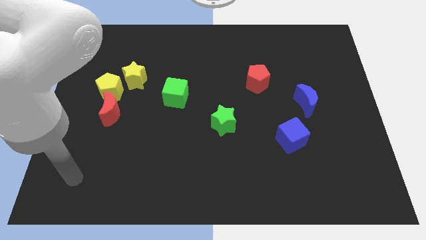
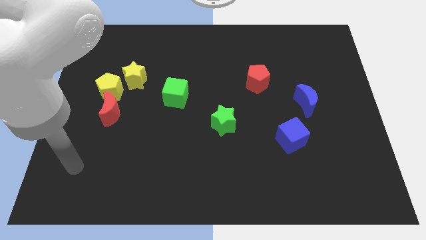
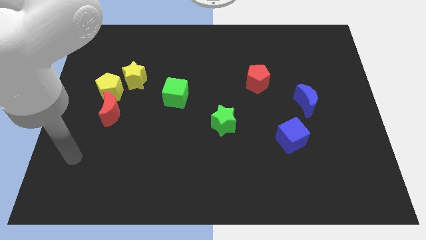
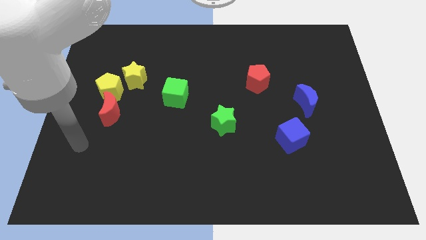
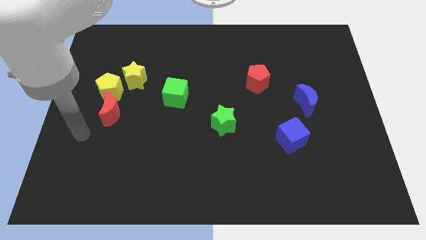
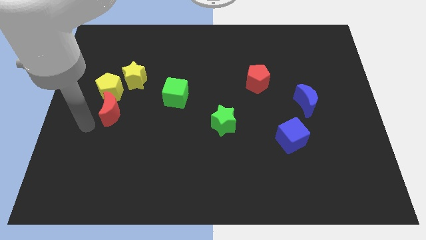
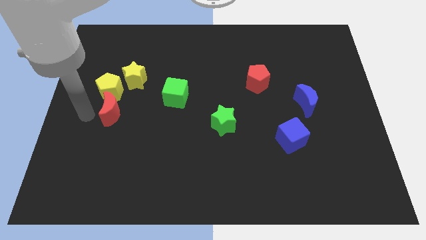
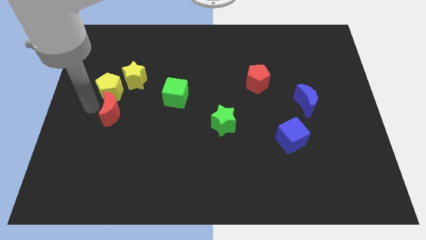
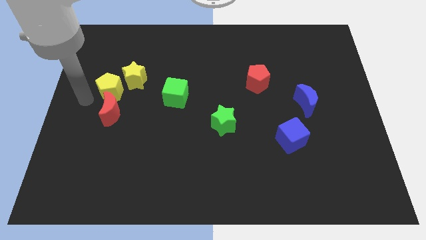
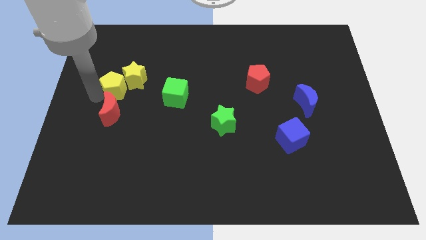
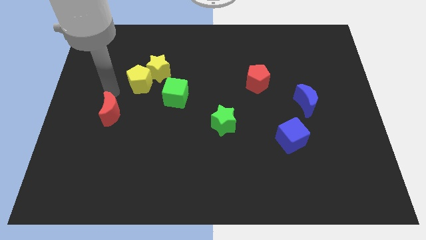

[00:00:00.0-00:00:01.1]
separate the red moon from the yellow pentagon

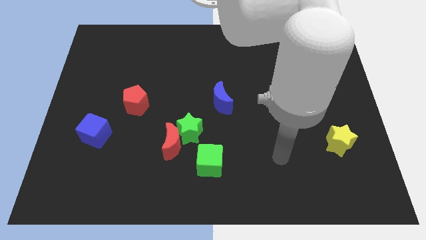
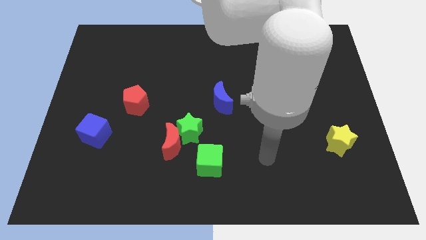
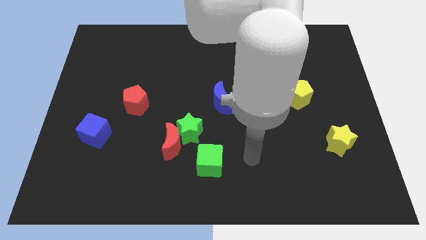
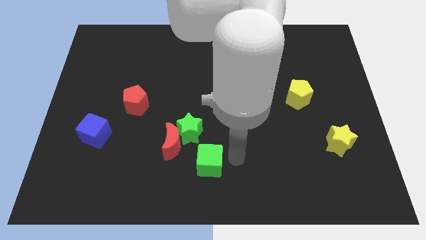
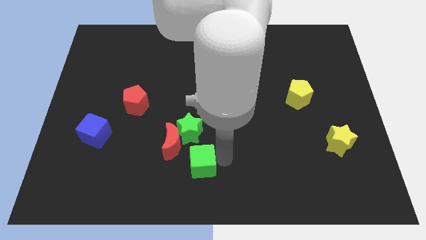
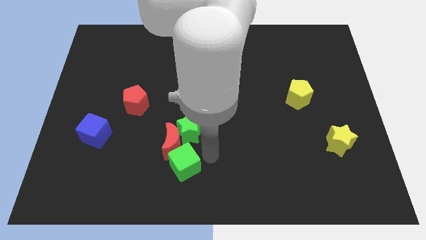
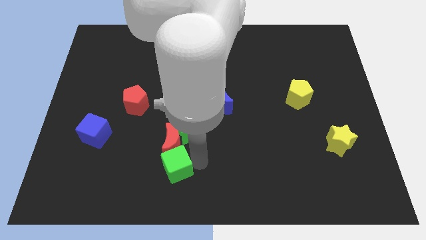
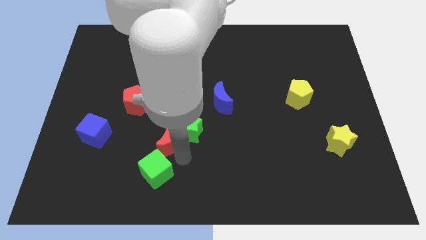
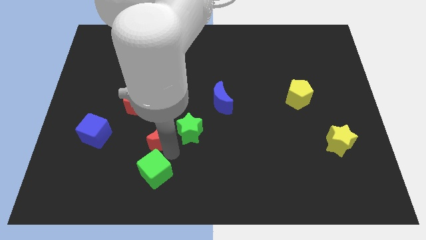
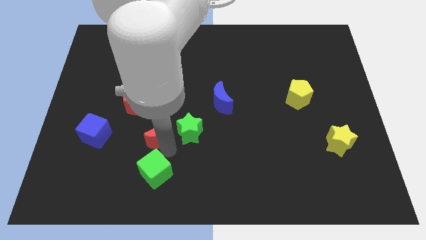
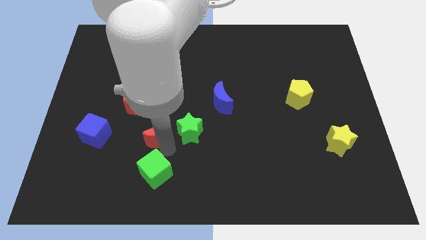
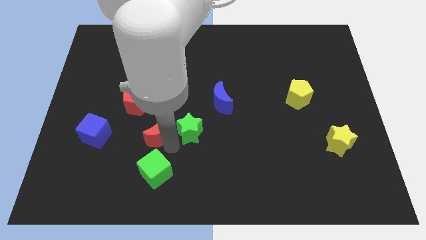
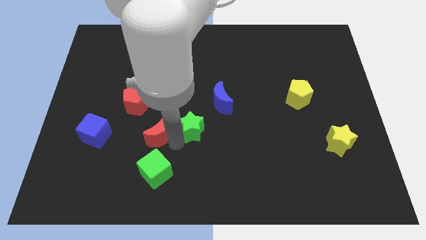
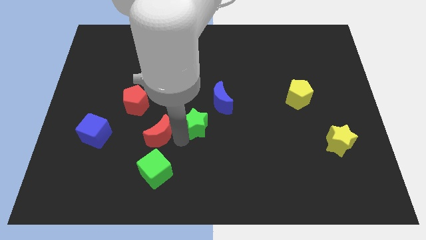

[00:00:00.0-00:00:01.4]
separate the green star from the red moon and green cube

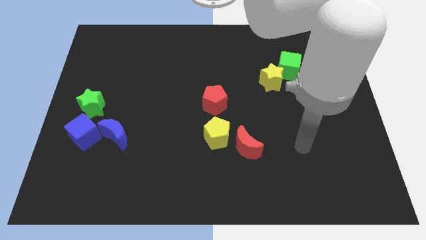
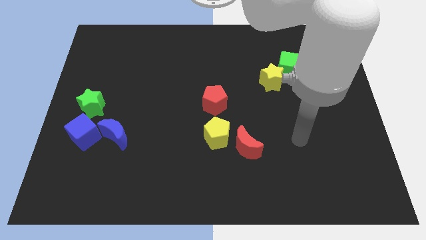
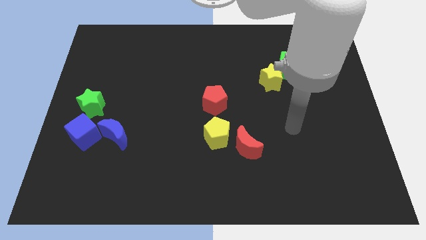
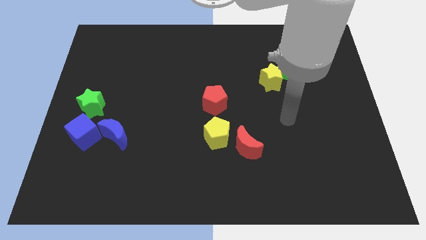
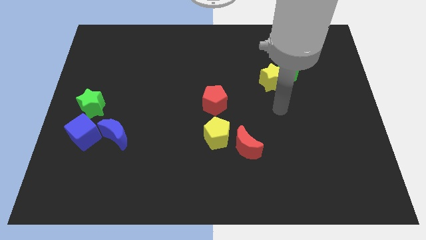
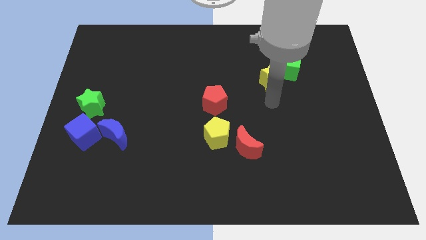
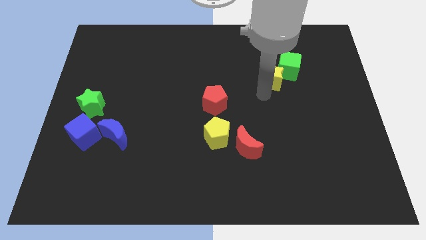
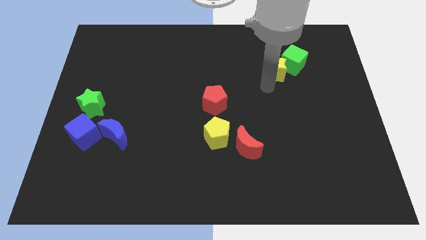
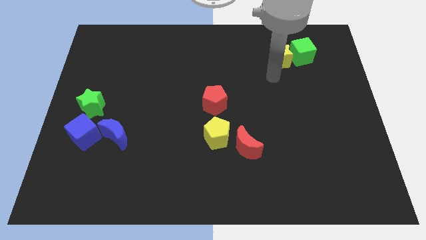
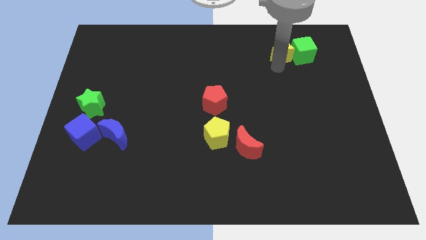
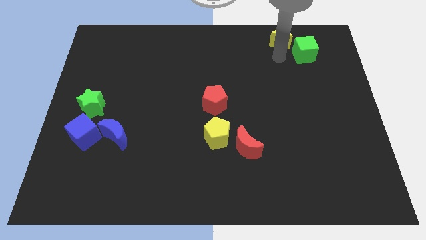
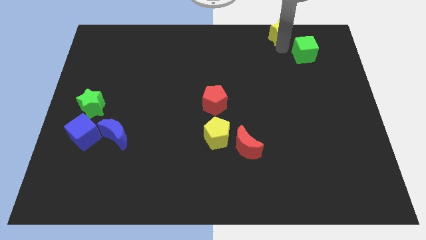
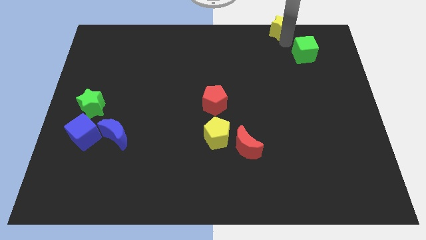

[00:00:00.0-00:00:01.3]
pull the green cube apart from the yellow star

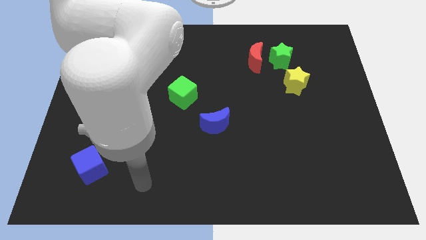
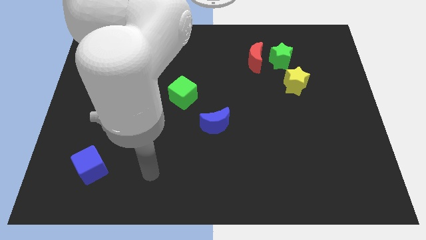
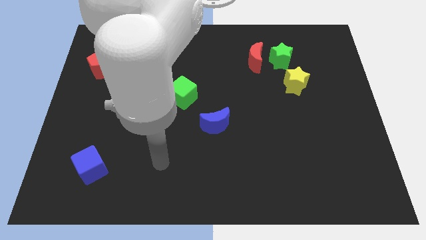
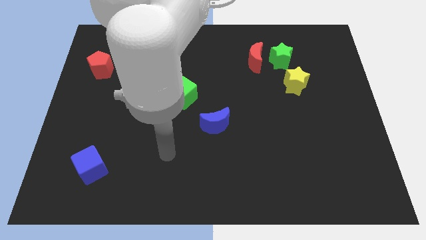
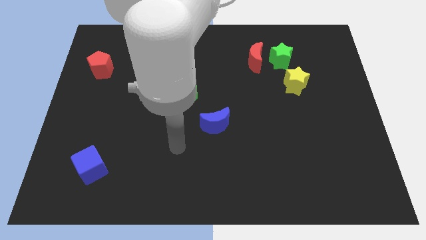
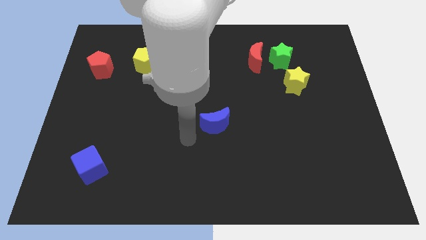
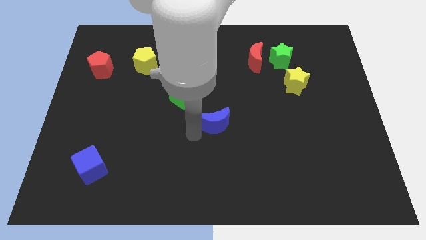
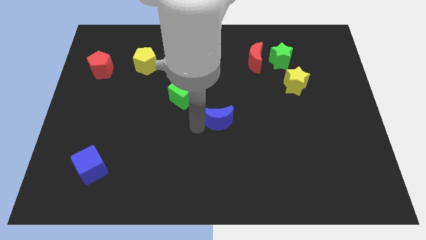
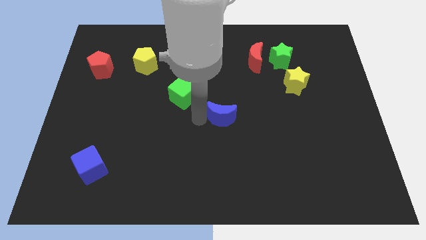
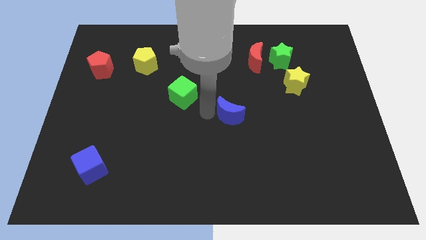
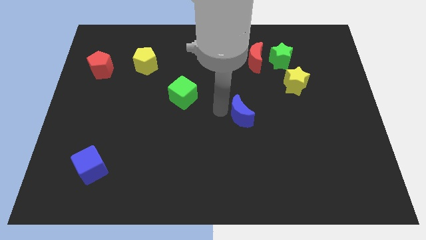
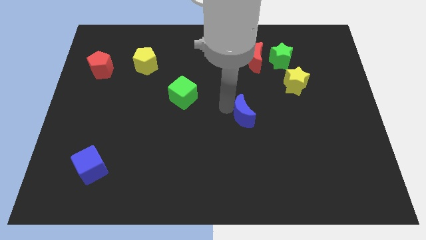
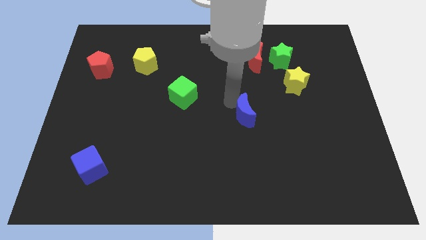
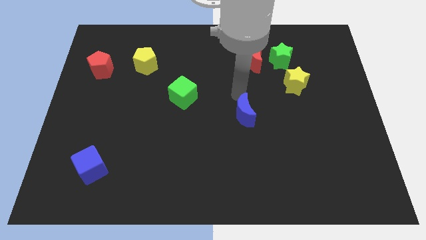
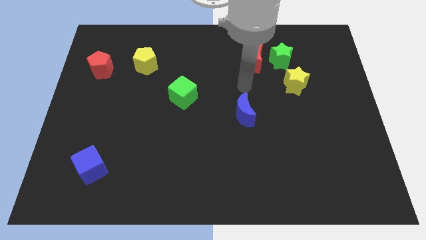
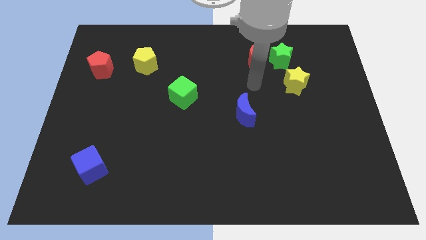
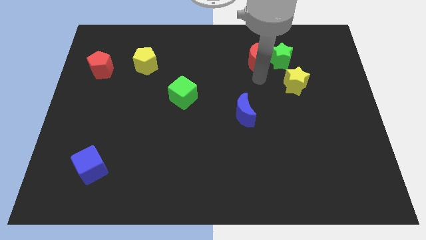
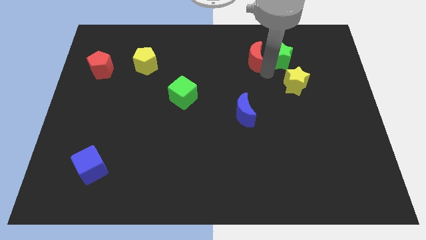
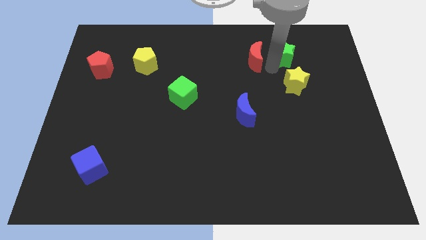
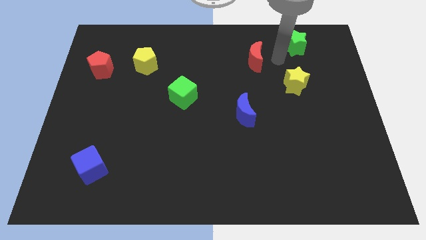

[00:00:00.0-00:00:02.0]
pull the red moon apart from the green star

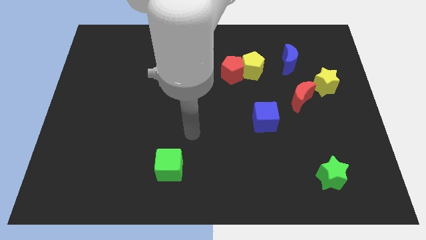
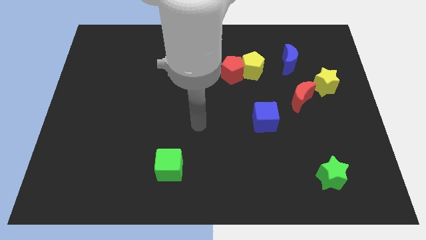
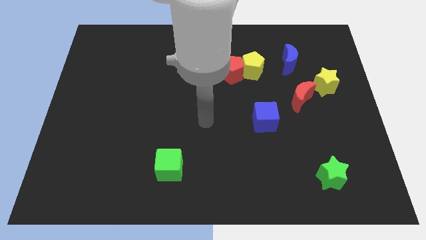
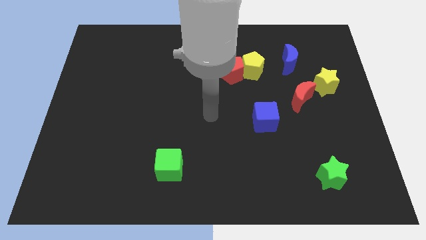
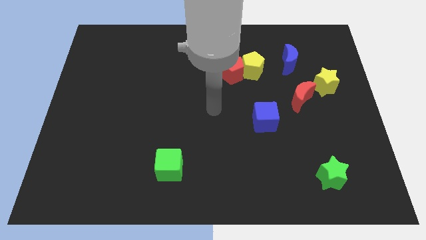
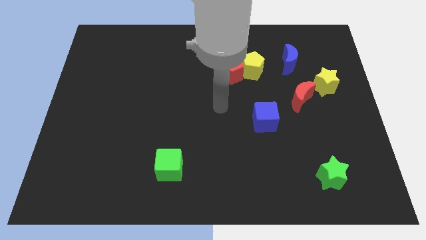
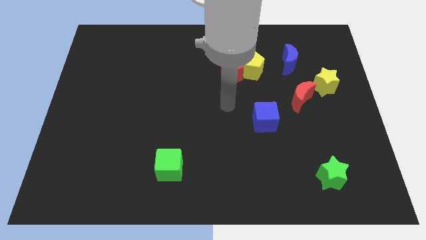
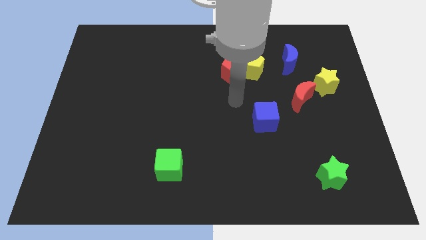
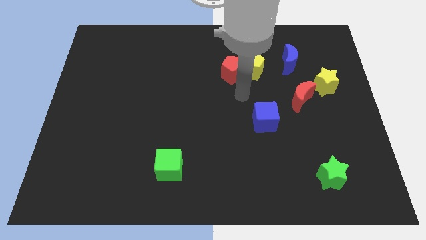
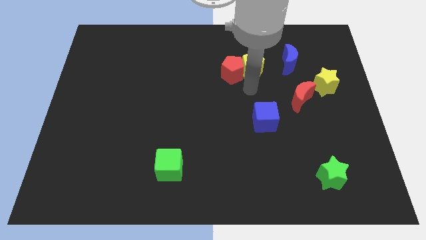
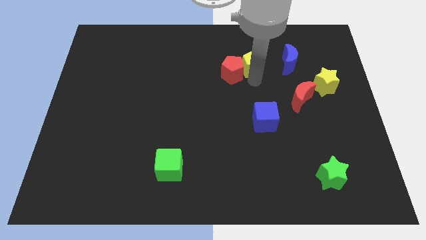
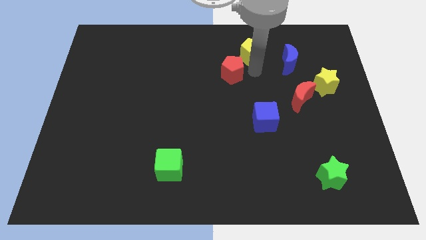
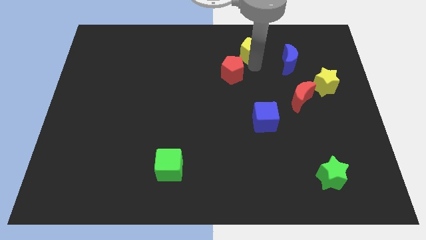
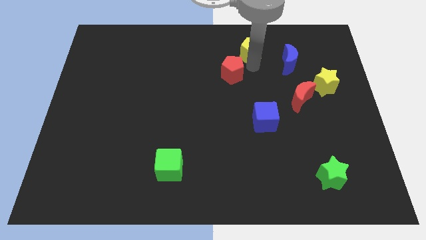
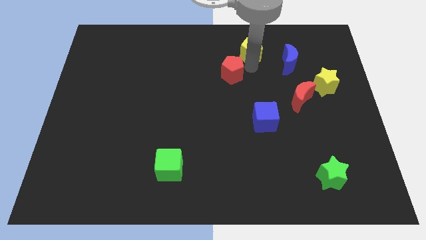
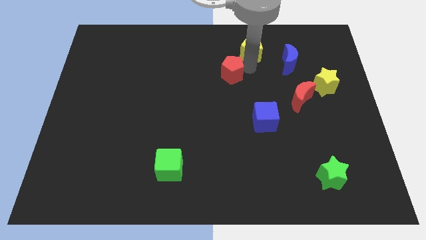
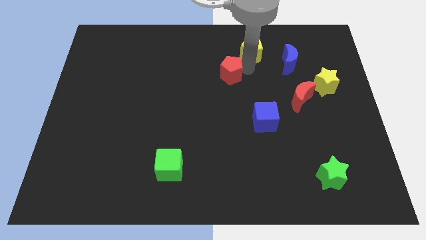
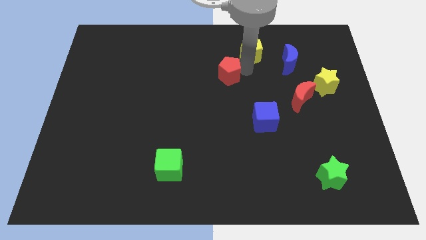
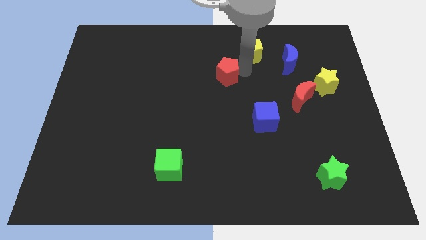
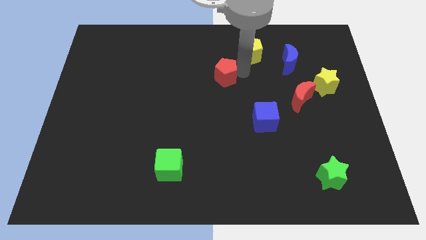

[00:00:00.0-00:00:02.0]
pull the red pentagon apart from the yellow pentagon

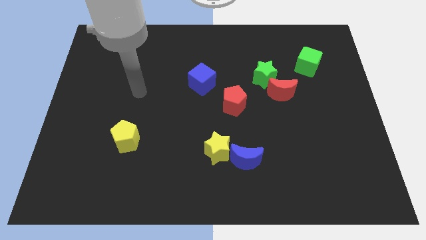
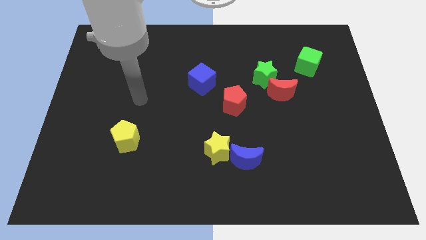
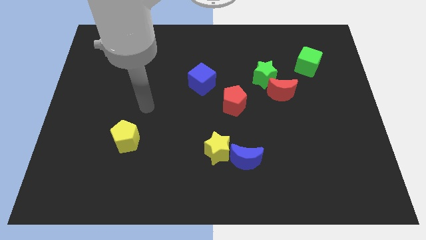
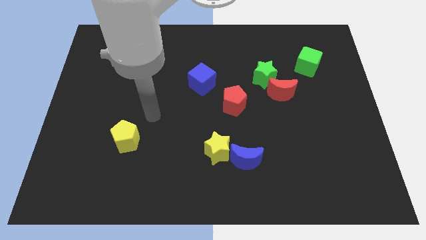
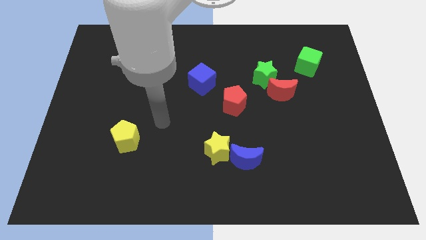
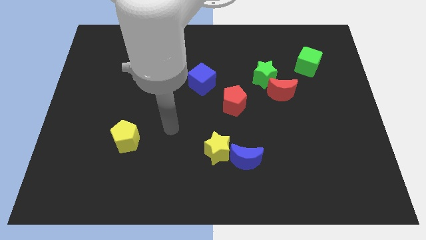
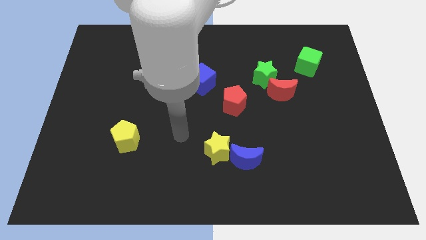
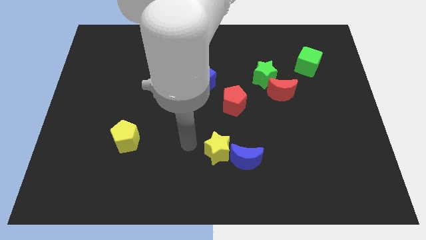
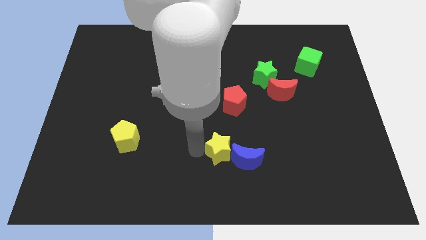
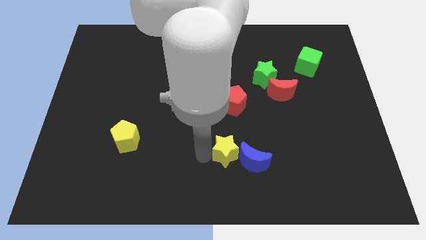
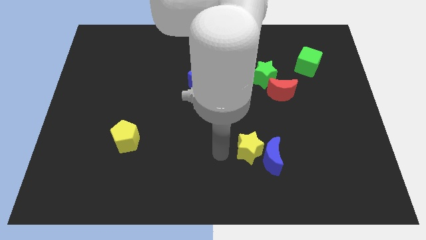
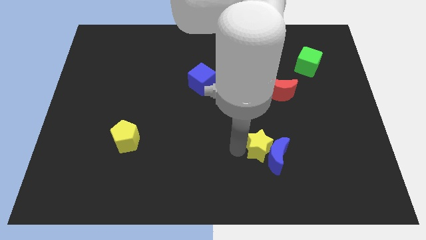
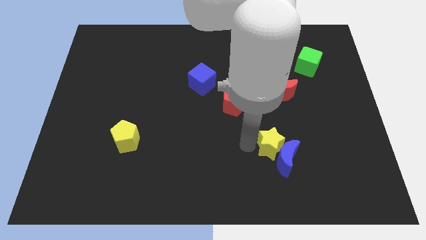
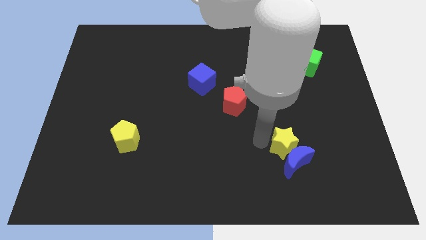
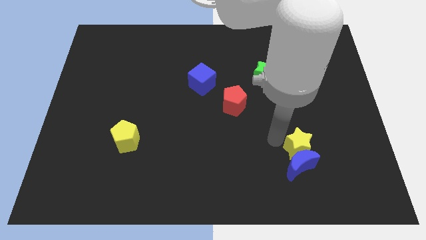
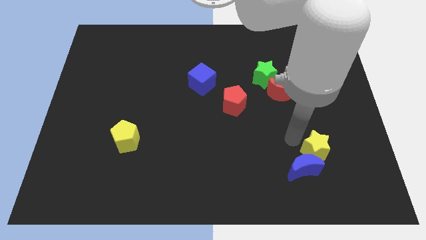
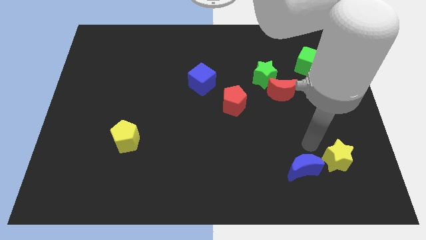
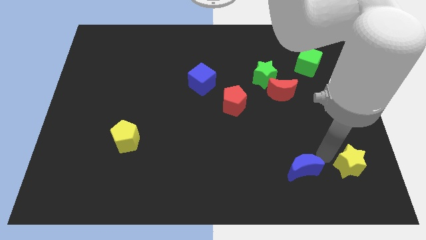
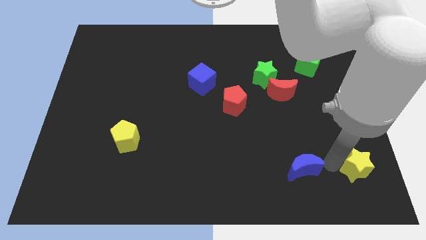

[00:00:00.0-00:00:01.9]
move the blue moon away from the yellow star
